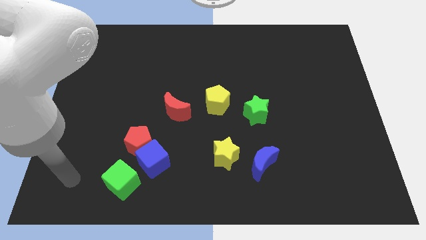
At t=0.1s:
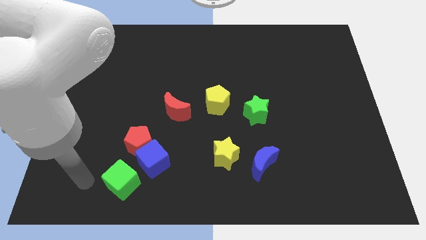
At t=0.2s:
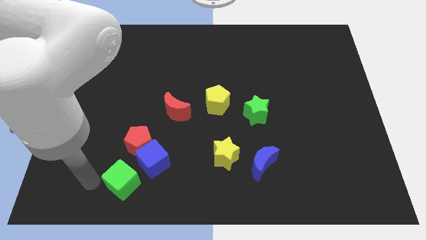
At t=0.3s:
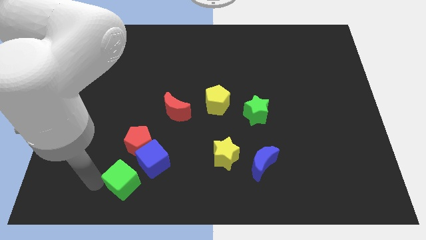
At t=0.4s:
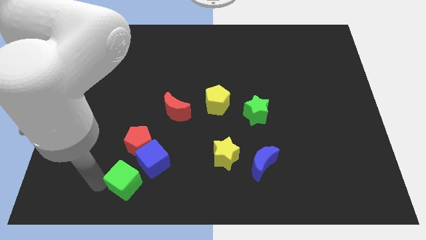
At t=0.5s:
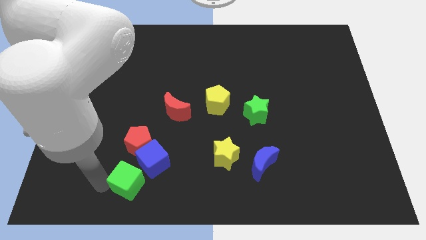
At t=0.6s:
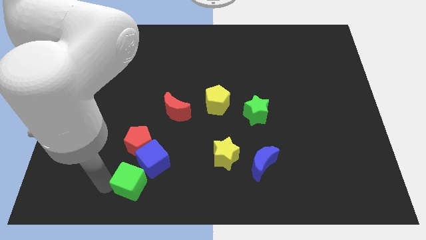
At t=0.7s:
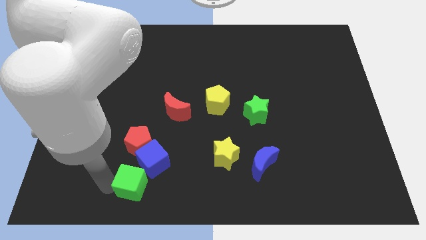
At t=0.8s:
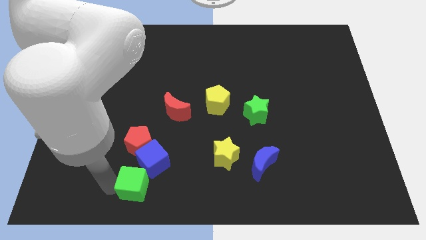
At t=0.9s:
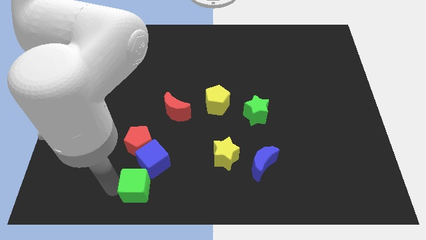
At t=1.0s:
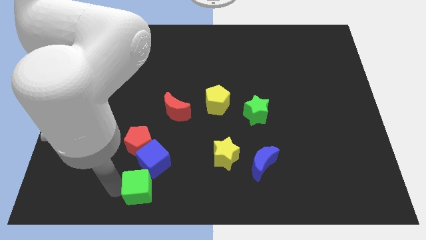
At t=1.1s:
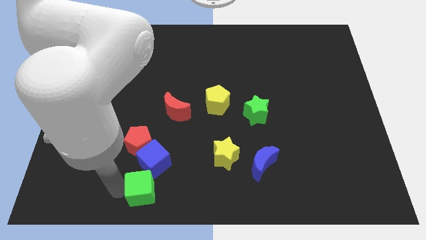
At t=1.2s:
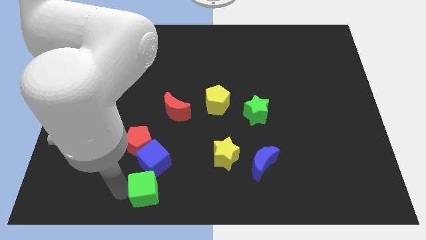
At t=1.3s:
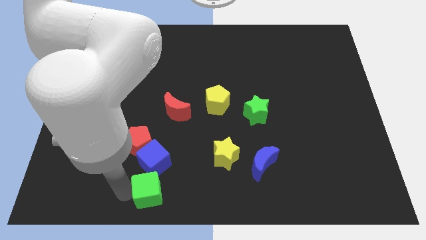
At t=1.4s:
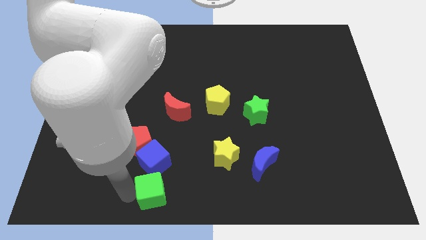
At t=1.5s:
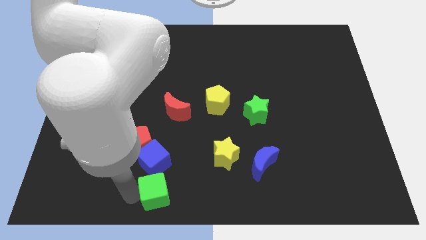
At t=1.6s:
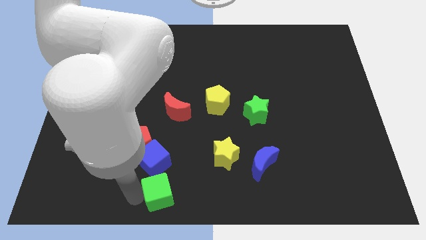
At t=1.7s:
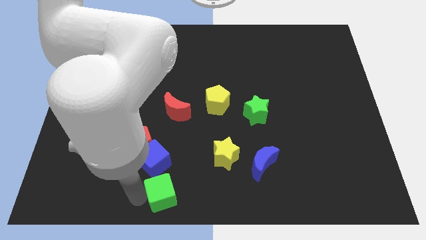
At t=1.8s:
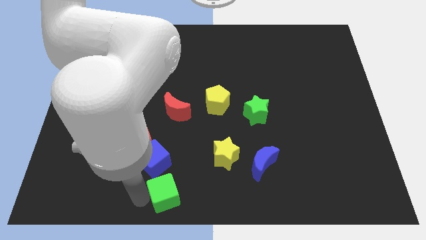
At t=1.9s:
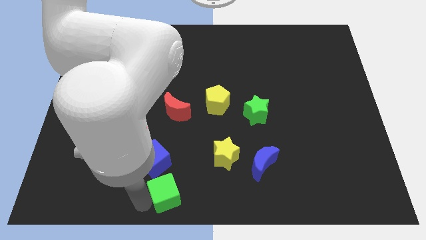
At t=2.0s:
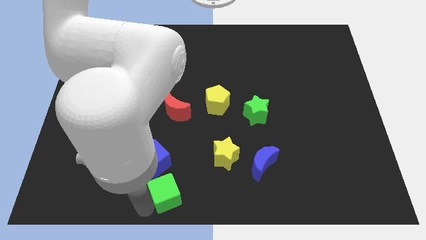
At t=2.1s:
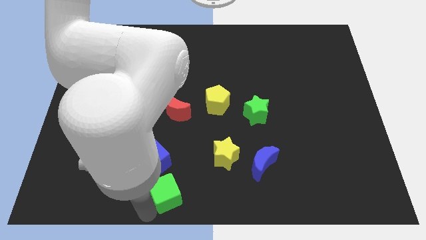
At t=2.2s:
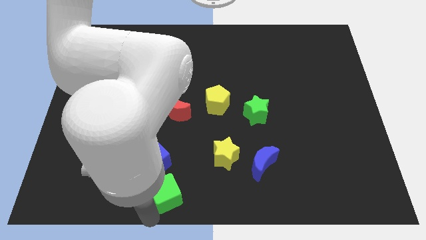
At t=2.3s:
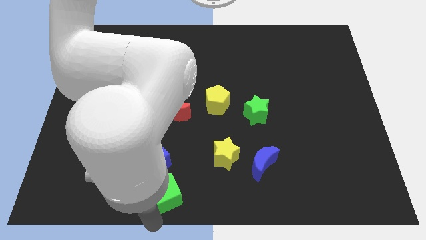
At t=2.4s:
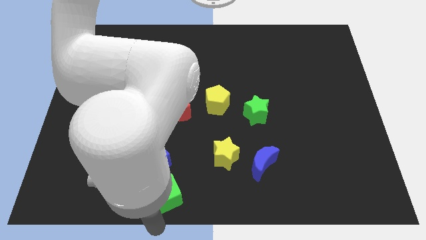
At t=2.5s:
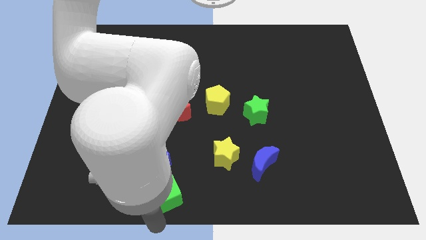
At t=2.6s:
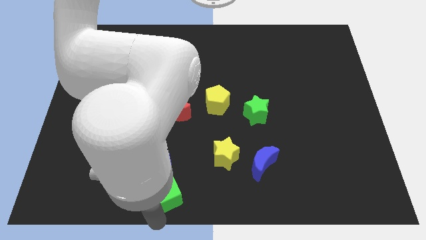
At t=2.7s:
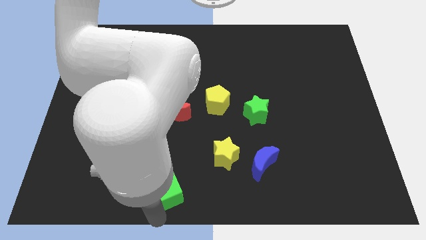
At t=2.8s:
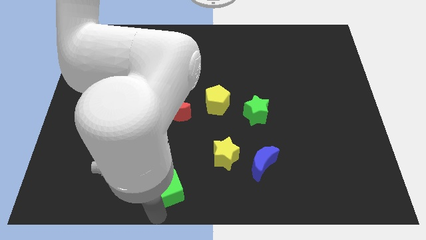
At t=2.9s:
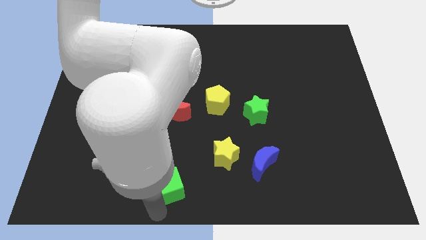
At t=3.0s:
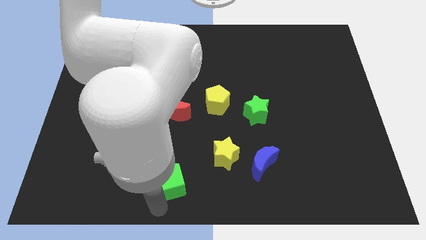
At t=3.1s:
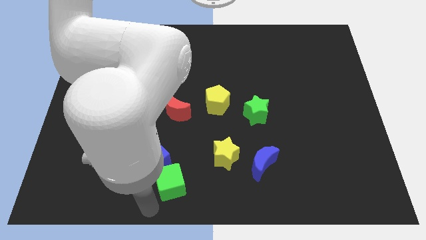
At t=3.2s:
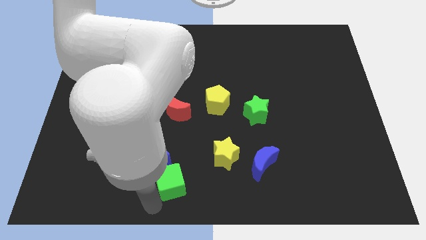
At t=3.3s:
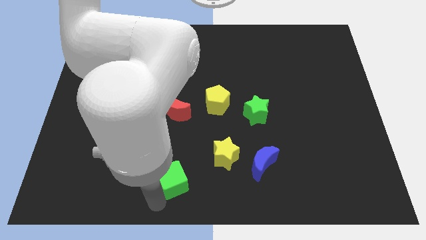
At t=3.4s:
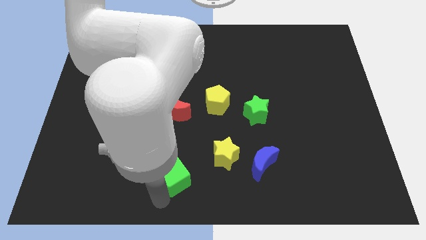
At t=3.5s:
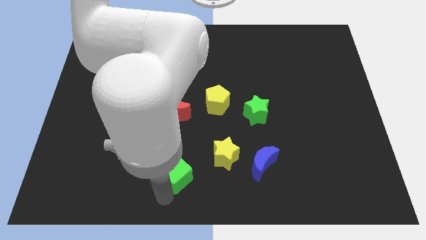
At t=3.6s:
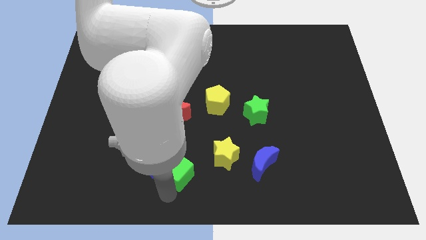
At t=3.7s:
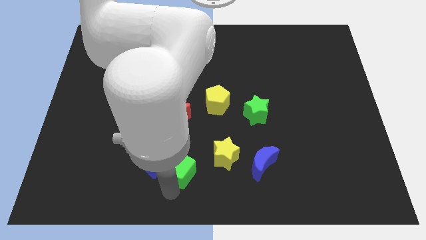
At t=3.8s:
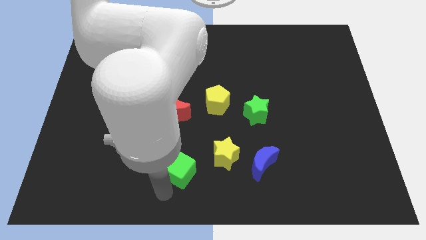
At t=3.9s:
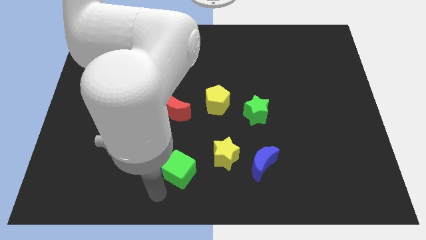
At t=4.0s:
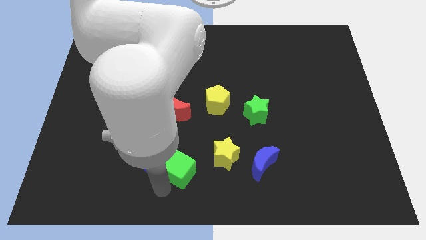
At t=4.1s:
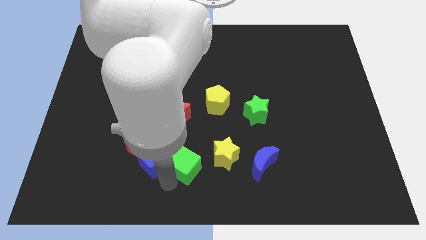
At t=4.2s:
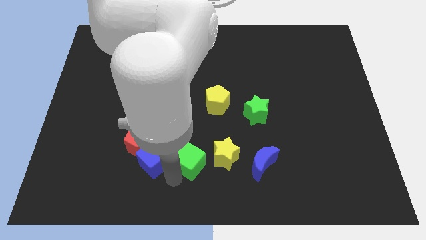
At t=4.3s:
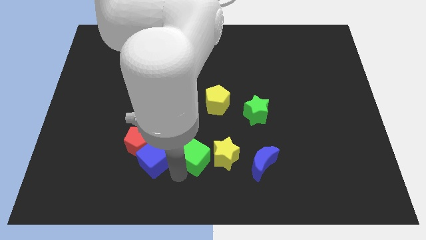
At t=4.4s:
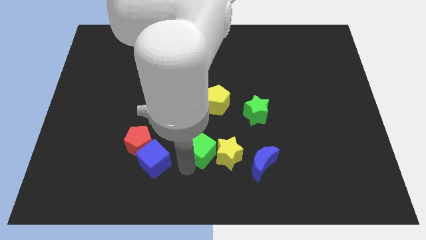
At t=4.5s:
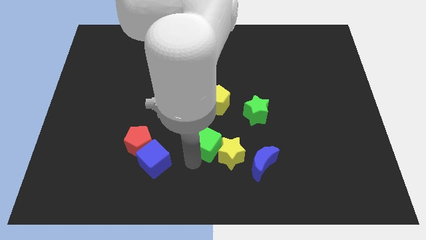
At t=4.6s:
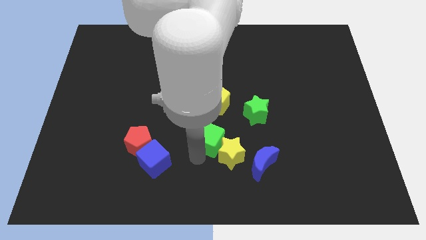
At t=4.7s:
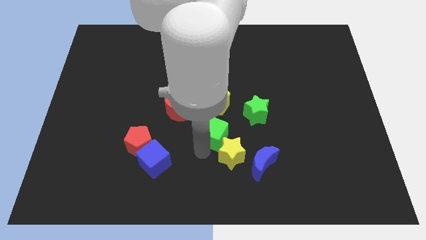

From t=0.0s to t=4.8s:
move the green cube diagonally upwards and right

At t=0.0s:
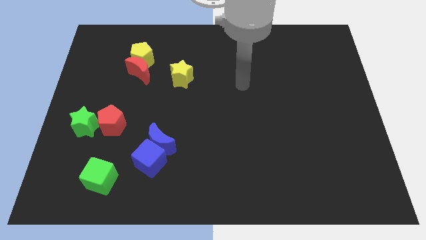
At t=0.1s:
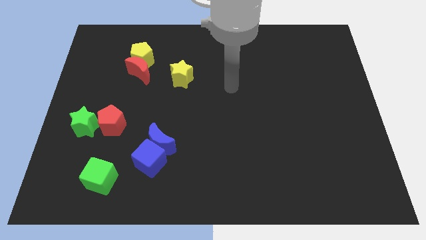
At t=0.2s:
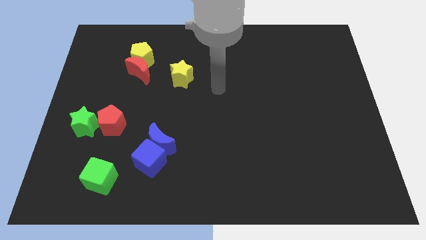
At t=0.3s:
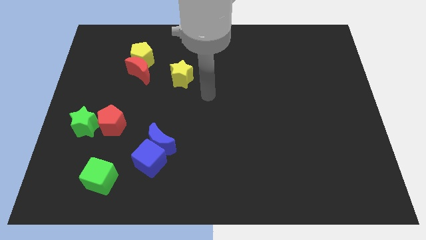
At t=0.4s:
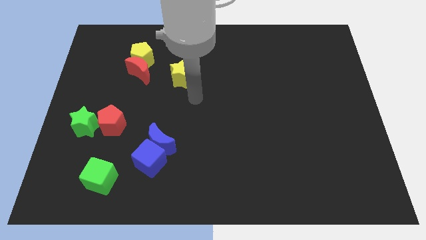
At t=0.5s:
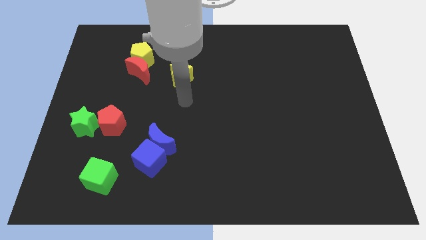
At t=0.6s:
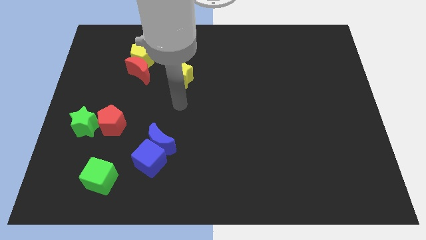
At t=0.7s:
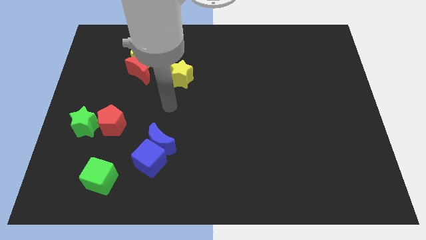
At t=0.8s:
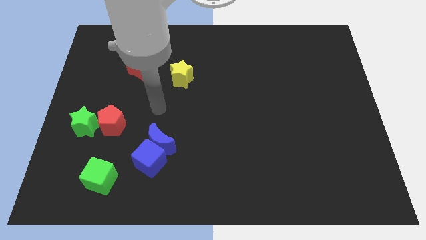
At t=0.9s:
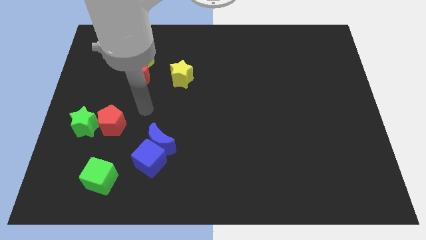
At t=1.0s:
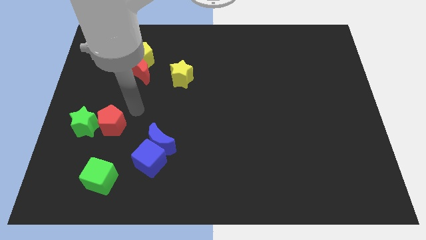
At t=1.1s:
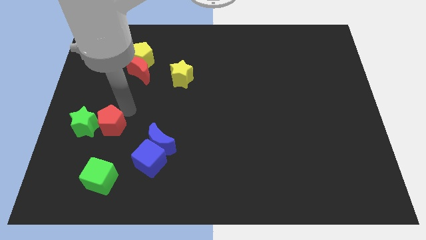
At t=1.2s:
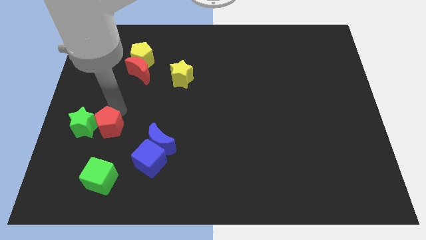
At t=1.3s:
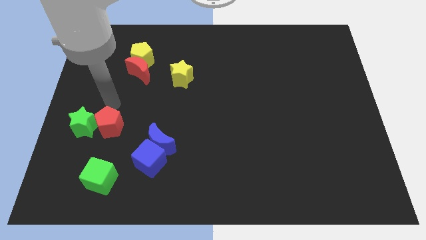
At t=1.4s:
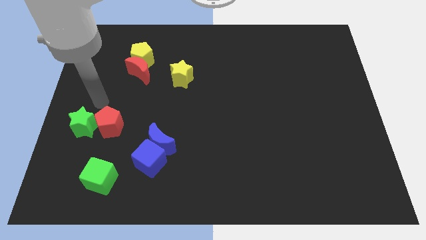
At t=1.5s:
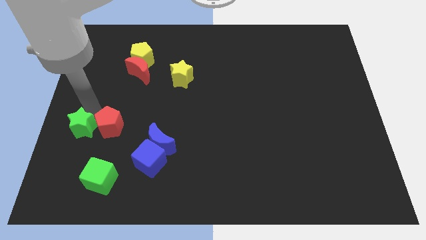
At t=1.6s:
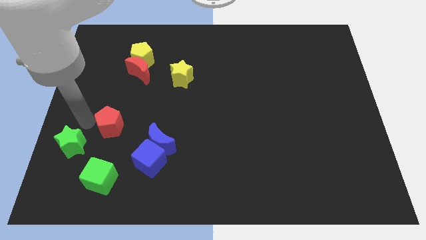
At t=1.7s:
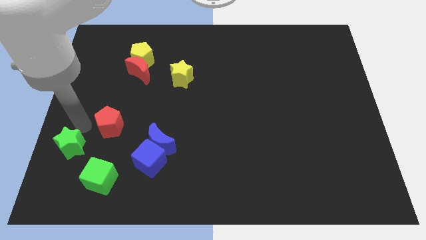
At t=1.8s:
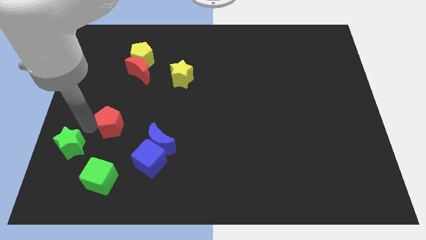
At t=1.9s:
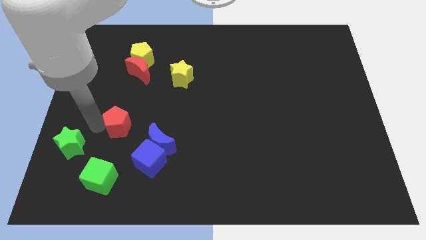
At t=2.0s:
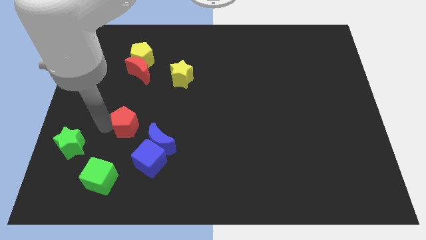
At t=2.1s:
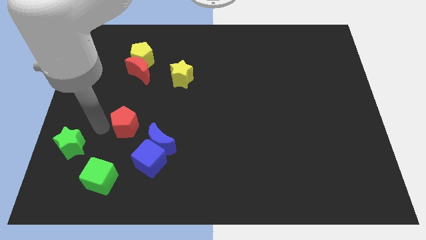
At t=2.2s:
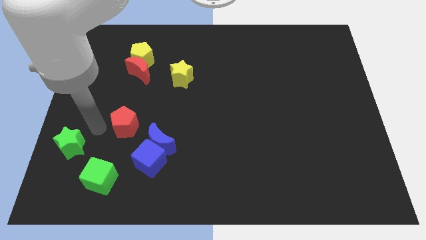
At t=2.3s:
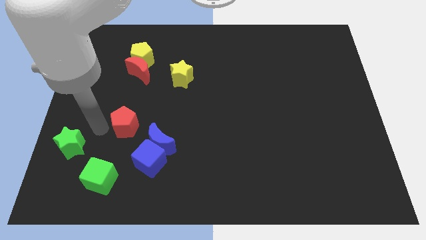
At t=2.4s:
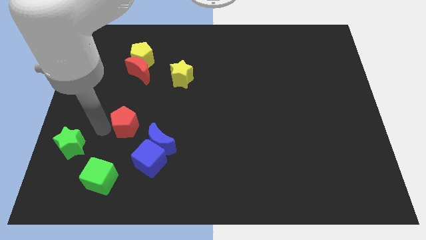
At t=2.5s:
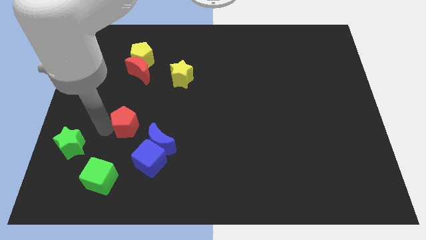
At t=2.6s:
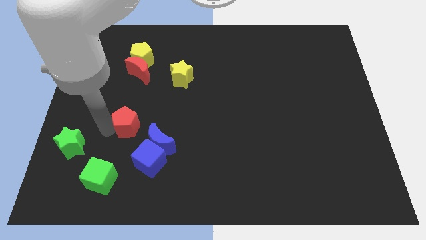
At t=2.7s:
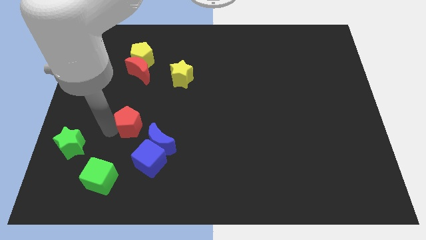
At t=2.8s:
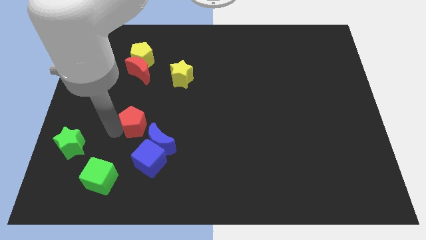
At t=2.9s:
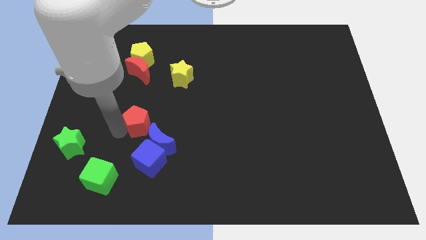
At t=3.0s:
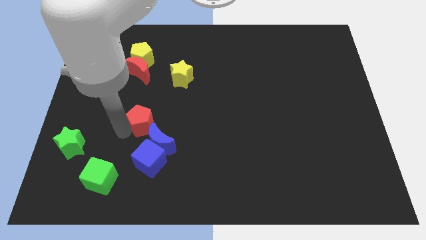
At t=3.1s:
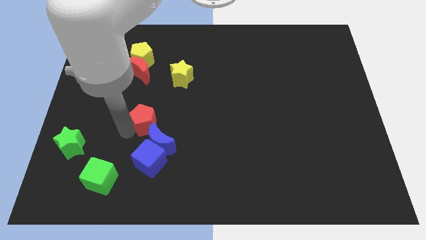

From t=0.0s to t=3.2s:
slightly move the red pentagon right

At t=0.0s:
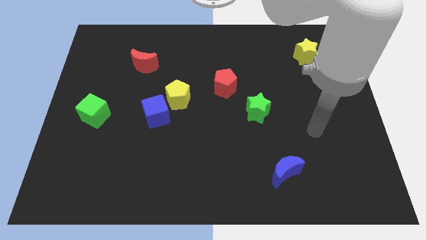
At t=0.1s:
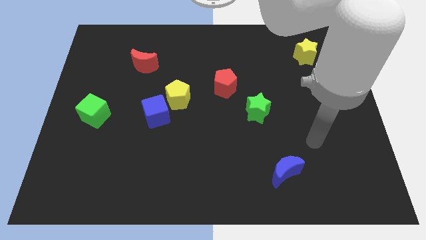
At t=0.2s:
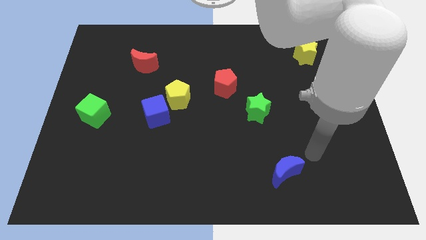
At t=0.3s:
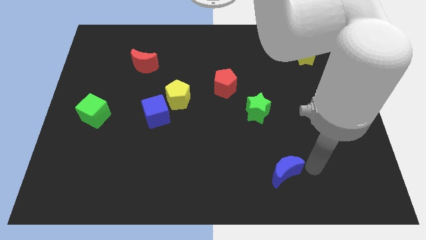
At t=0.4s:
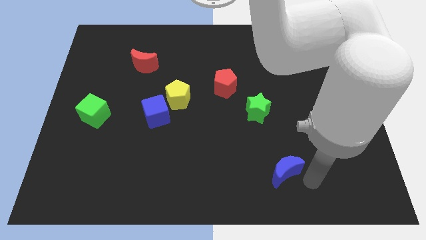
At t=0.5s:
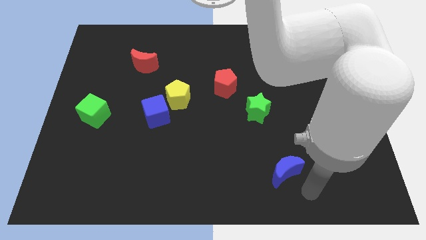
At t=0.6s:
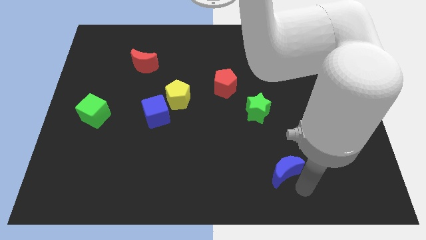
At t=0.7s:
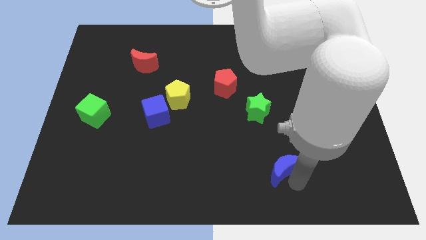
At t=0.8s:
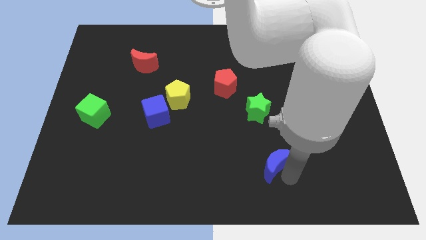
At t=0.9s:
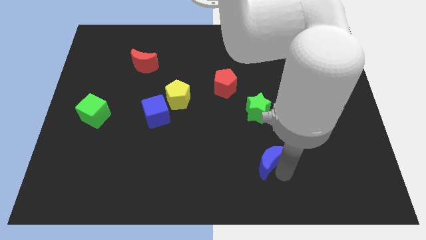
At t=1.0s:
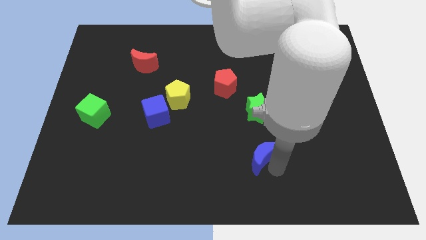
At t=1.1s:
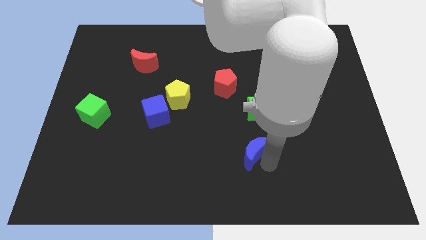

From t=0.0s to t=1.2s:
push the blue moon a bit up and then left
